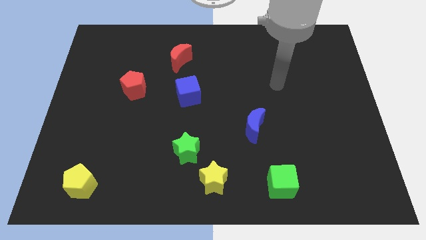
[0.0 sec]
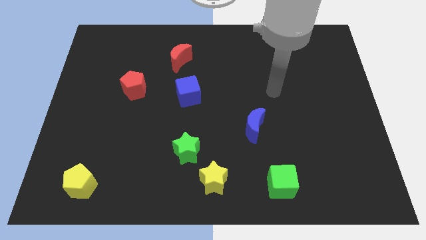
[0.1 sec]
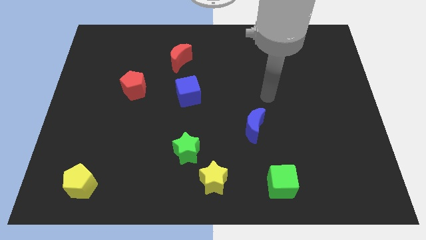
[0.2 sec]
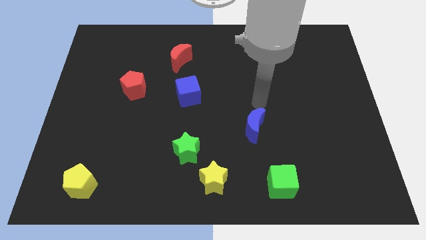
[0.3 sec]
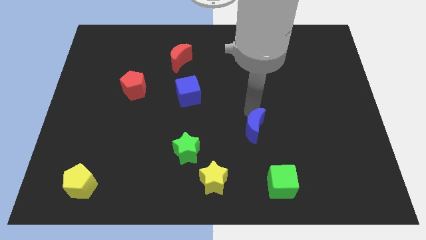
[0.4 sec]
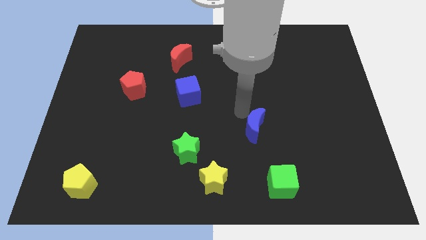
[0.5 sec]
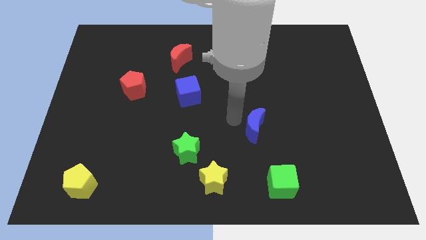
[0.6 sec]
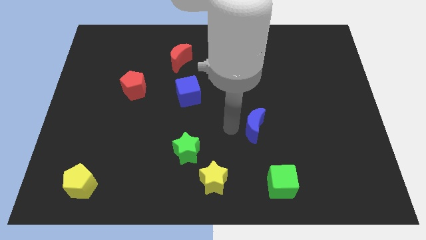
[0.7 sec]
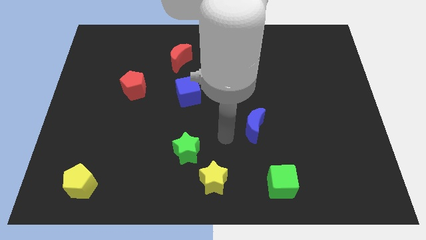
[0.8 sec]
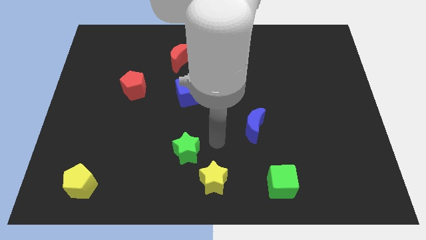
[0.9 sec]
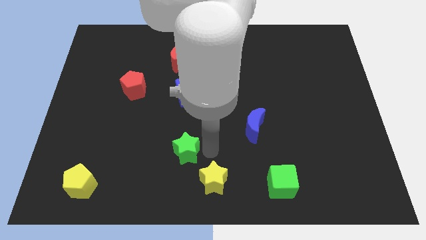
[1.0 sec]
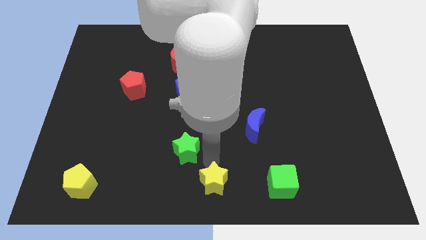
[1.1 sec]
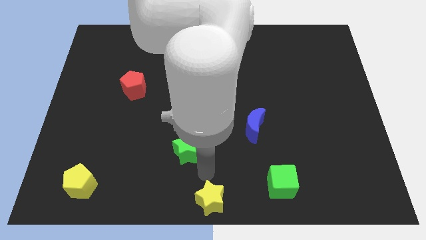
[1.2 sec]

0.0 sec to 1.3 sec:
separate the green star from the yellow star

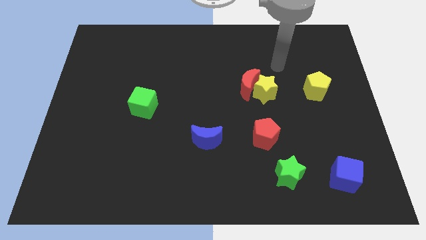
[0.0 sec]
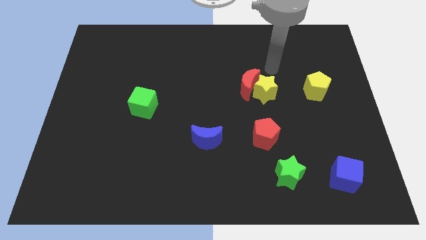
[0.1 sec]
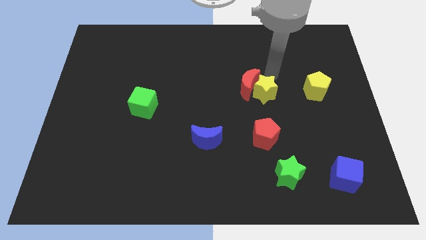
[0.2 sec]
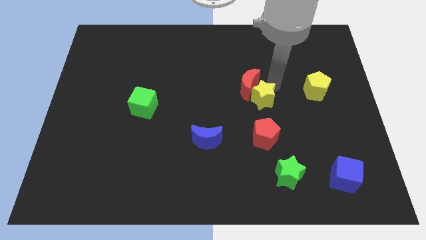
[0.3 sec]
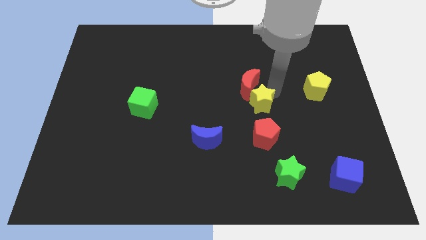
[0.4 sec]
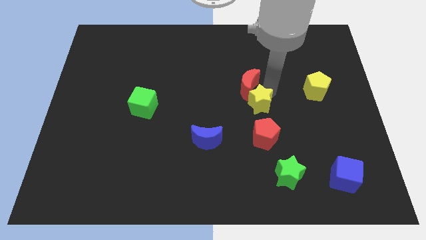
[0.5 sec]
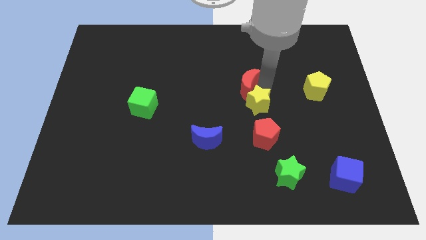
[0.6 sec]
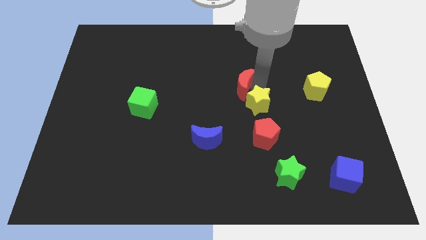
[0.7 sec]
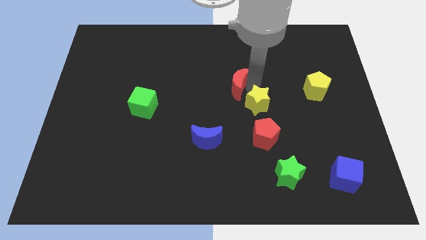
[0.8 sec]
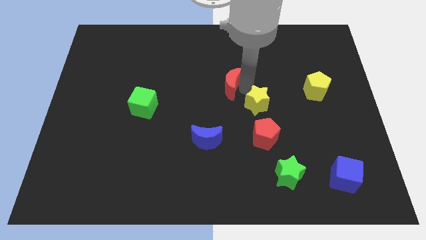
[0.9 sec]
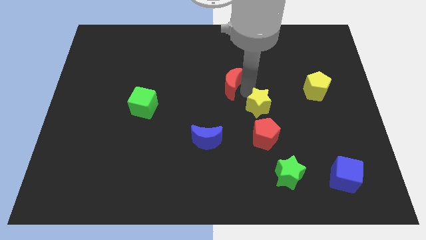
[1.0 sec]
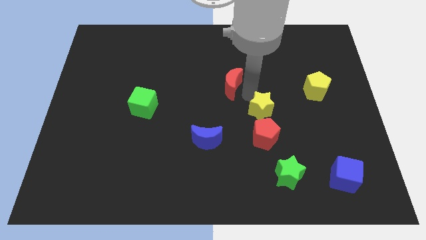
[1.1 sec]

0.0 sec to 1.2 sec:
move the red moon away from the yellow star

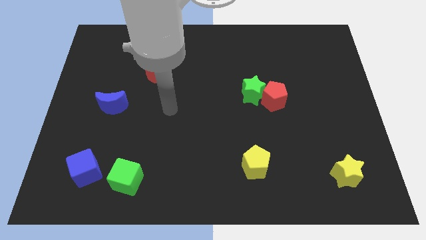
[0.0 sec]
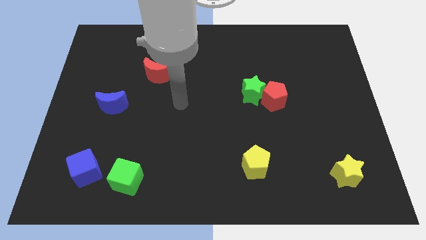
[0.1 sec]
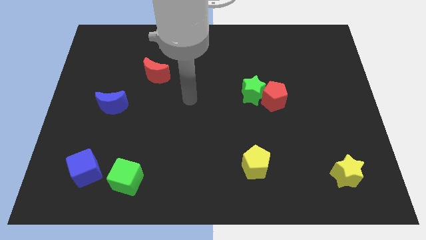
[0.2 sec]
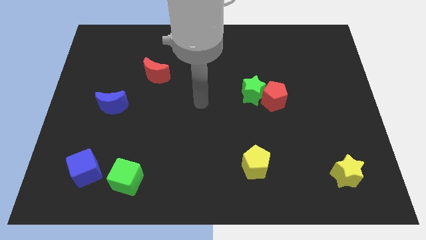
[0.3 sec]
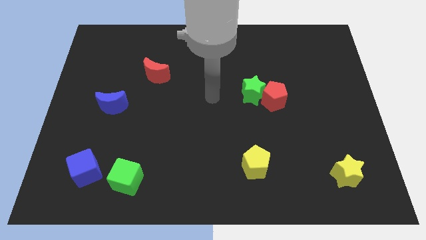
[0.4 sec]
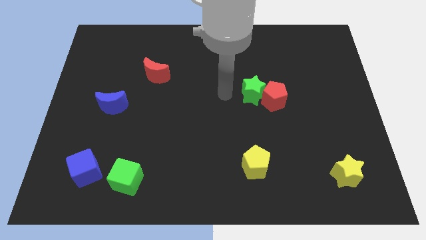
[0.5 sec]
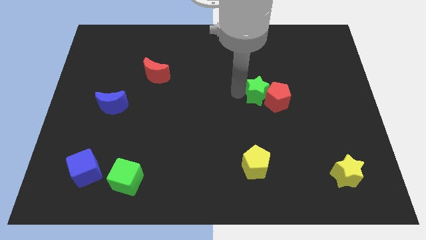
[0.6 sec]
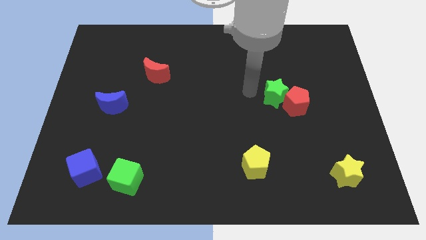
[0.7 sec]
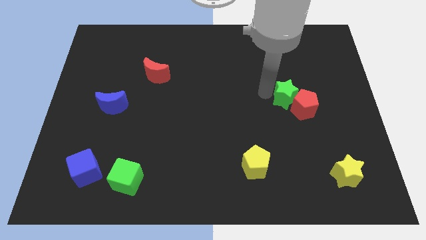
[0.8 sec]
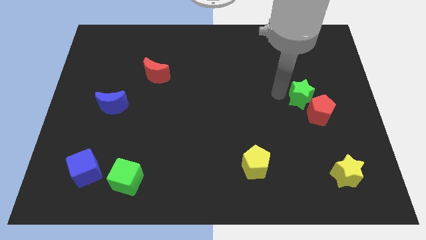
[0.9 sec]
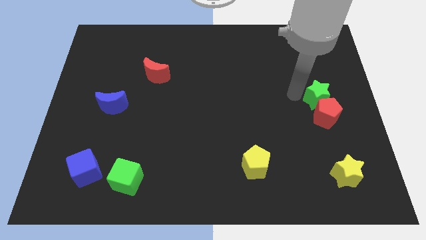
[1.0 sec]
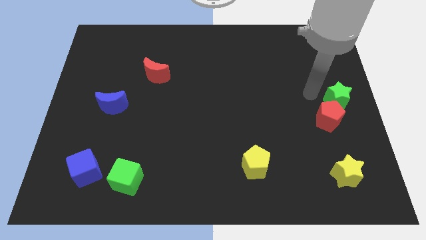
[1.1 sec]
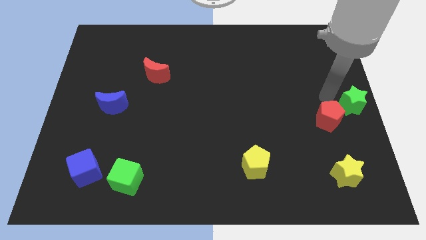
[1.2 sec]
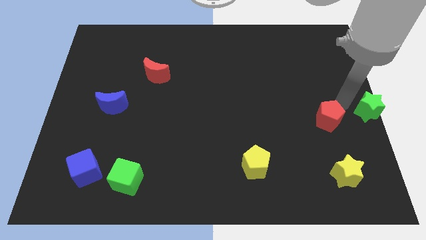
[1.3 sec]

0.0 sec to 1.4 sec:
separate the red pentagon from the green star

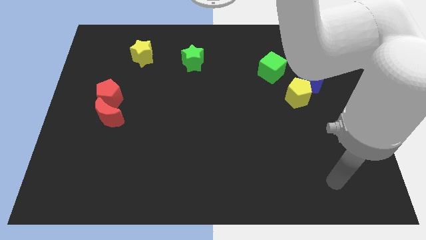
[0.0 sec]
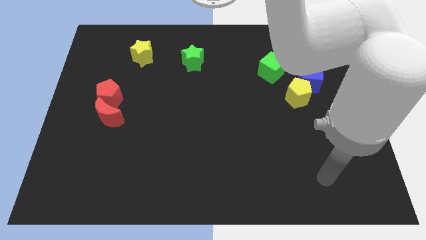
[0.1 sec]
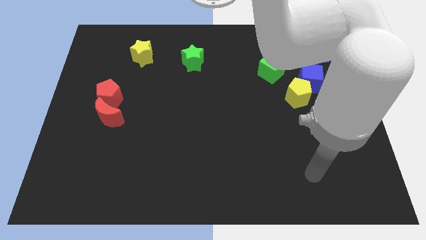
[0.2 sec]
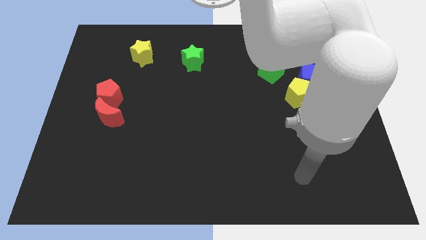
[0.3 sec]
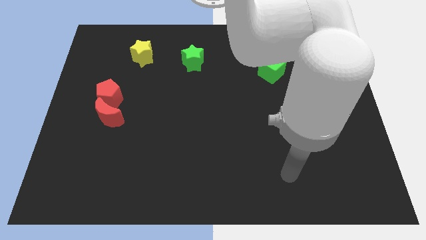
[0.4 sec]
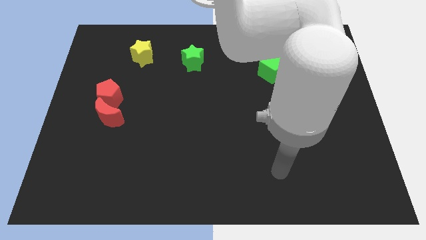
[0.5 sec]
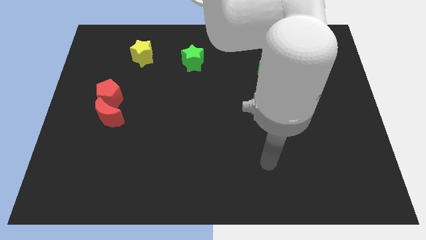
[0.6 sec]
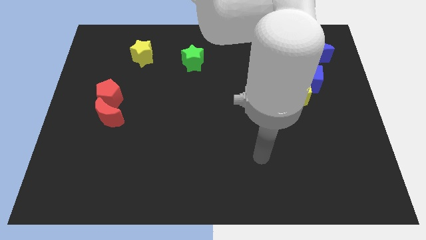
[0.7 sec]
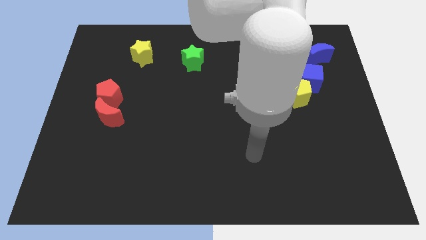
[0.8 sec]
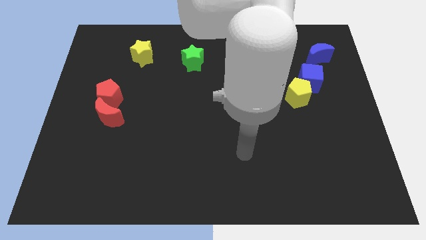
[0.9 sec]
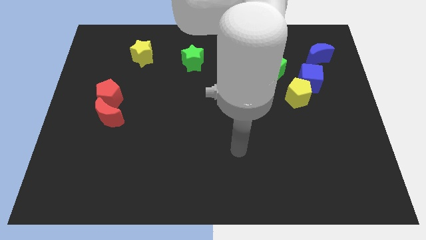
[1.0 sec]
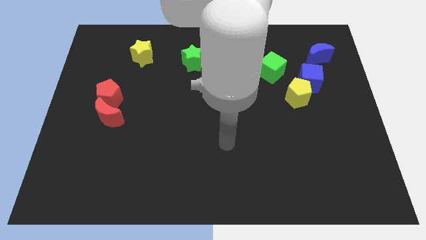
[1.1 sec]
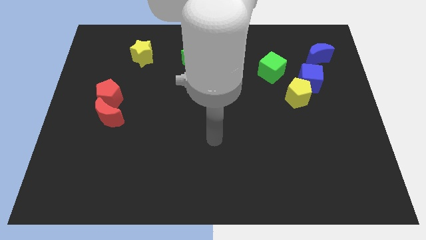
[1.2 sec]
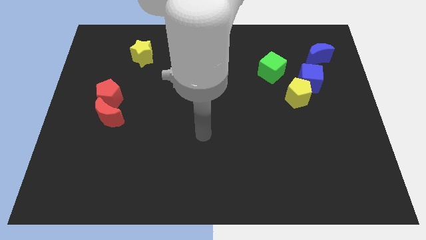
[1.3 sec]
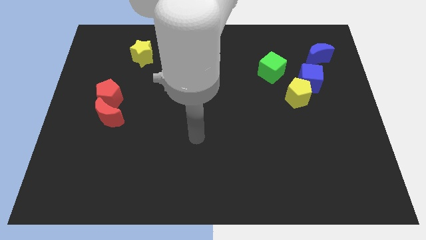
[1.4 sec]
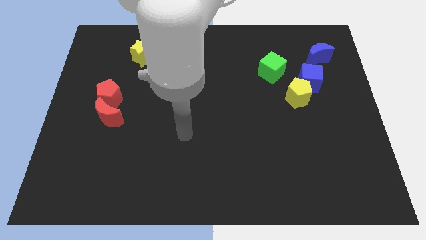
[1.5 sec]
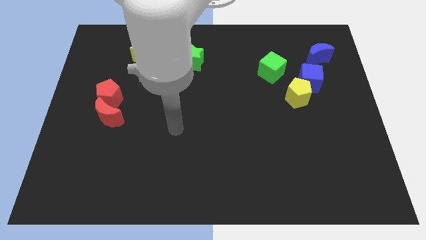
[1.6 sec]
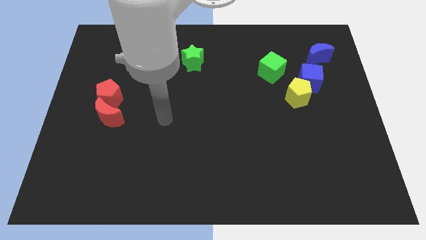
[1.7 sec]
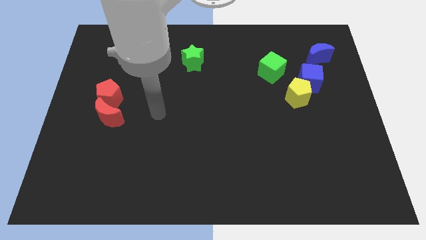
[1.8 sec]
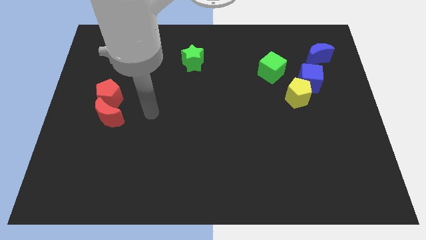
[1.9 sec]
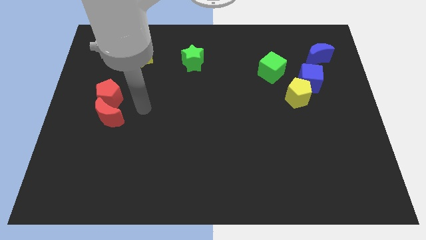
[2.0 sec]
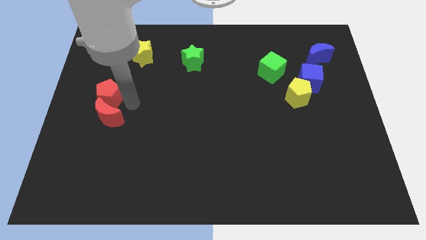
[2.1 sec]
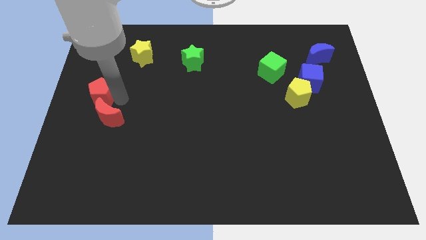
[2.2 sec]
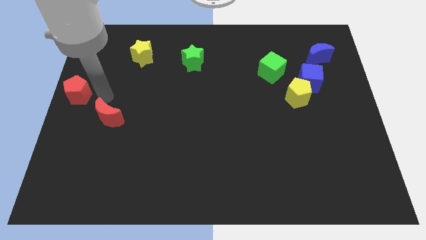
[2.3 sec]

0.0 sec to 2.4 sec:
pull the red moon apart from the red pentagon

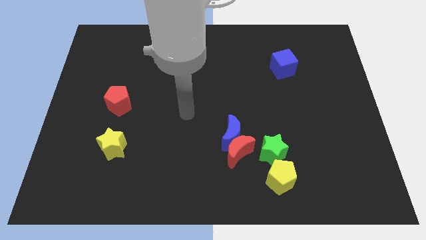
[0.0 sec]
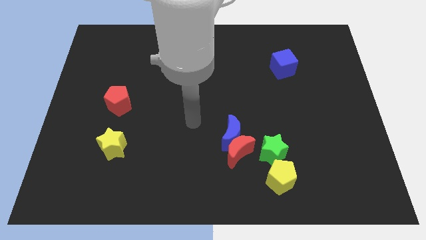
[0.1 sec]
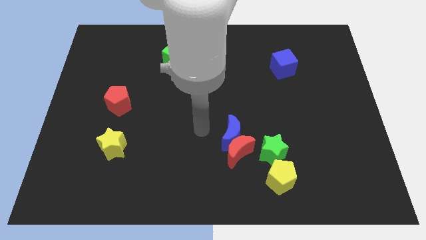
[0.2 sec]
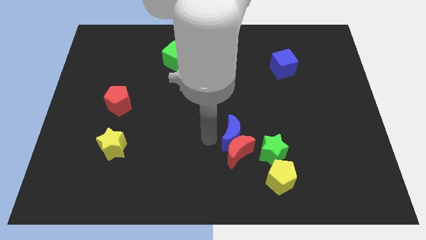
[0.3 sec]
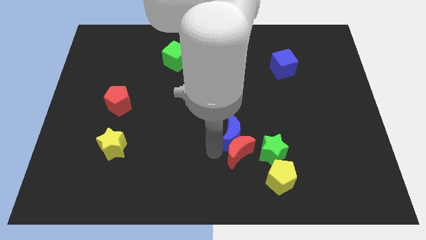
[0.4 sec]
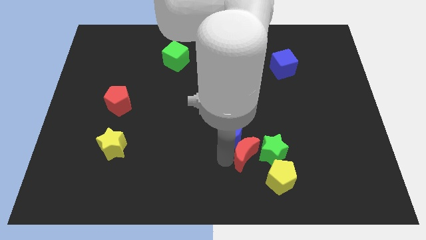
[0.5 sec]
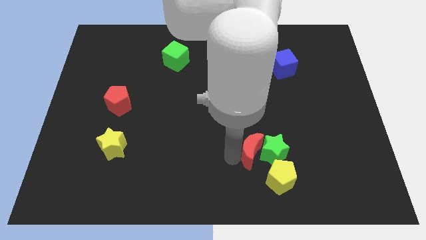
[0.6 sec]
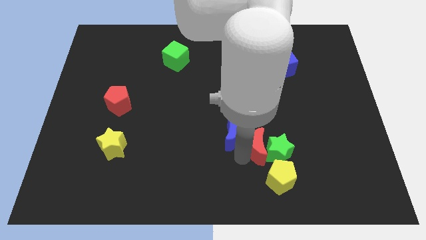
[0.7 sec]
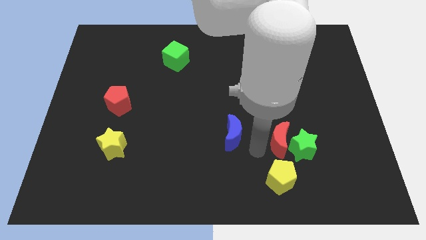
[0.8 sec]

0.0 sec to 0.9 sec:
move the blue moon away from the red moon and green star

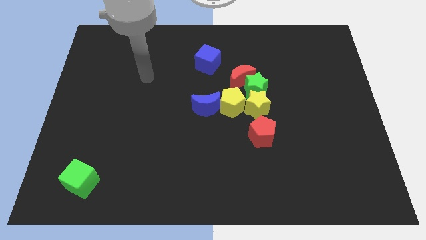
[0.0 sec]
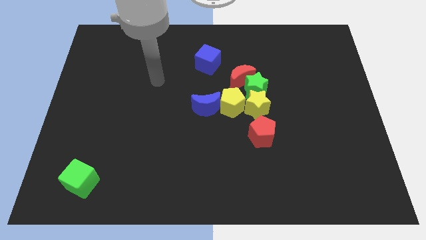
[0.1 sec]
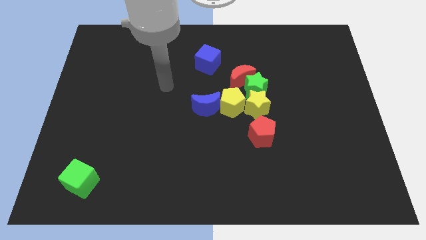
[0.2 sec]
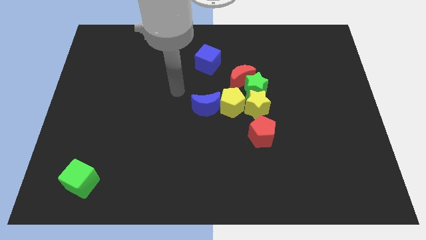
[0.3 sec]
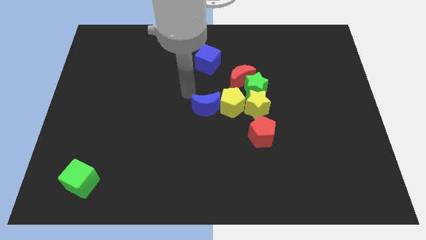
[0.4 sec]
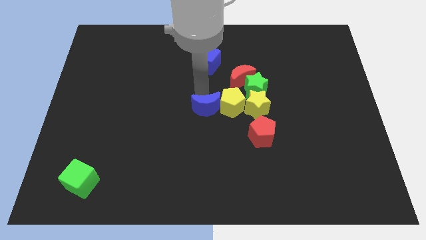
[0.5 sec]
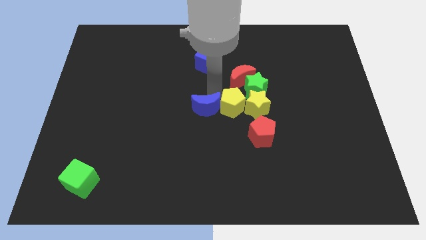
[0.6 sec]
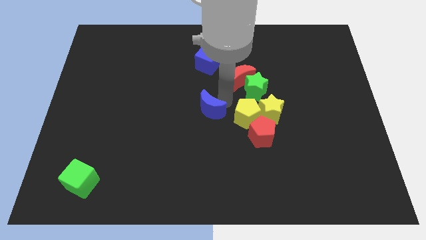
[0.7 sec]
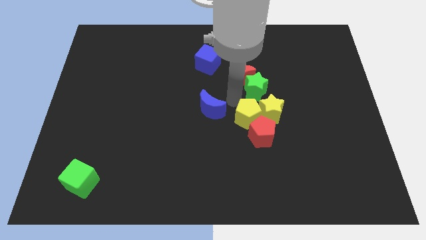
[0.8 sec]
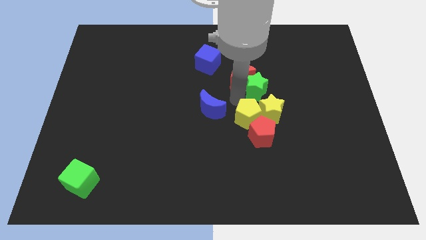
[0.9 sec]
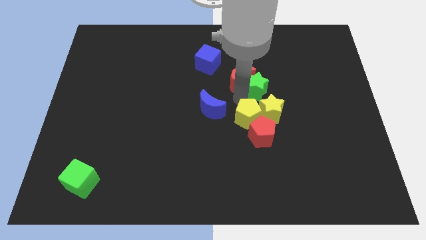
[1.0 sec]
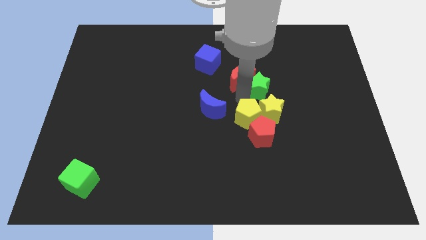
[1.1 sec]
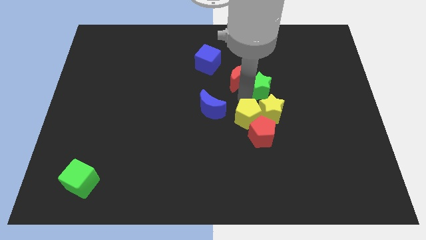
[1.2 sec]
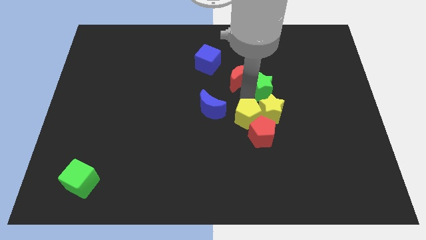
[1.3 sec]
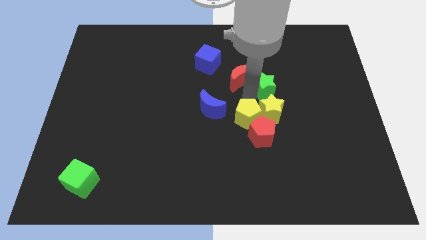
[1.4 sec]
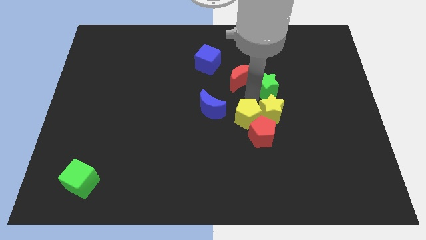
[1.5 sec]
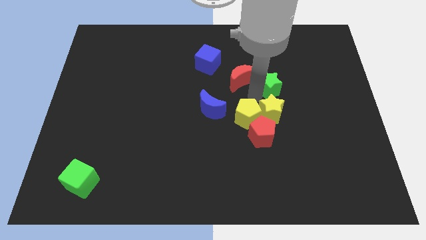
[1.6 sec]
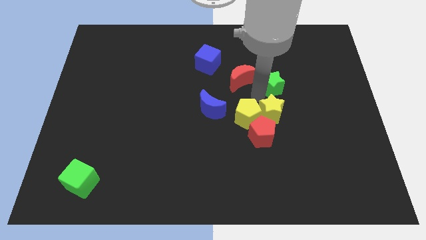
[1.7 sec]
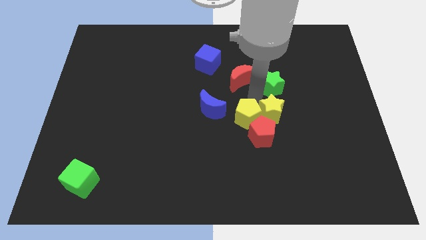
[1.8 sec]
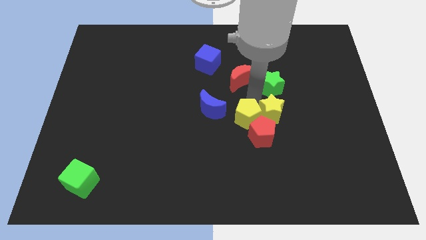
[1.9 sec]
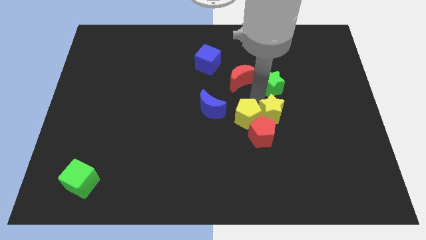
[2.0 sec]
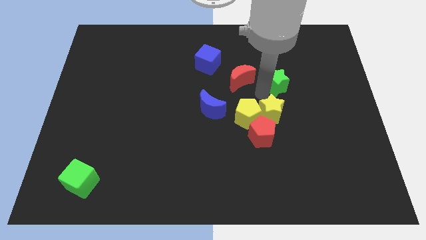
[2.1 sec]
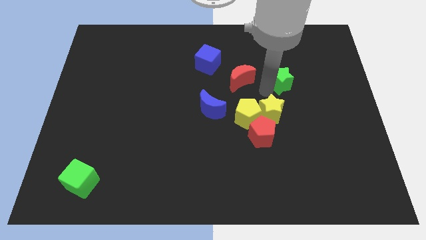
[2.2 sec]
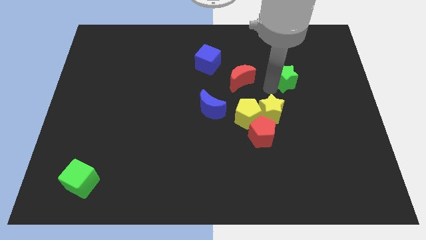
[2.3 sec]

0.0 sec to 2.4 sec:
pull the green star apart from the group
